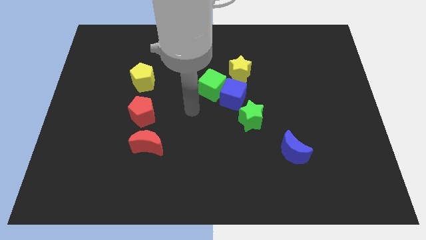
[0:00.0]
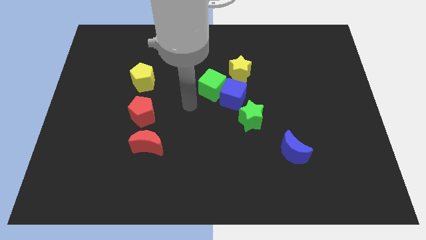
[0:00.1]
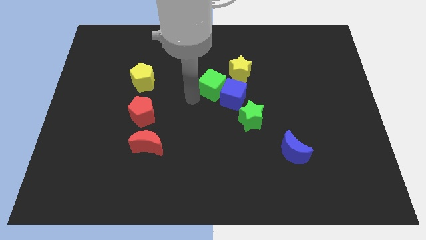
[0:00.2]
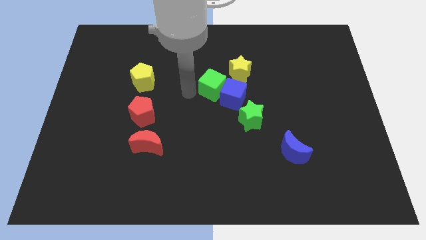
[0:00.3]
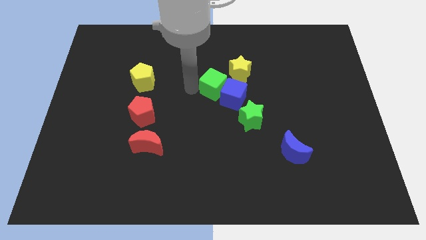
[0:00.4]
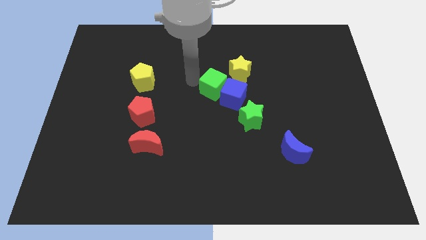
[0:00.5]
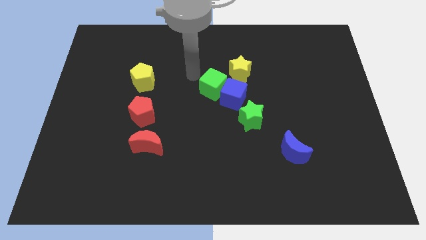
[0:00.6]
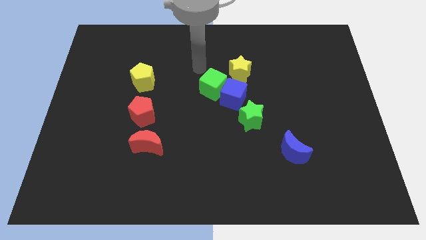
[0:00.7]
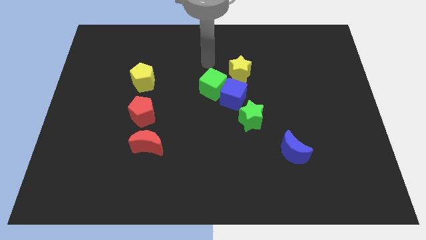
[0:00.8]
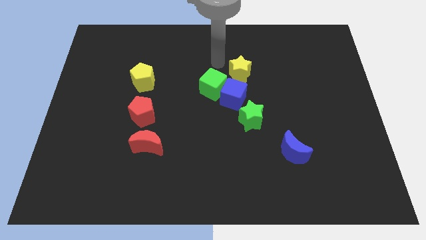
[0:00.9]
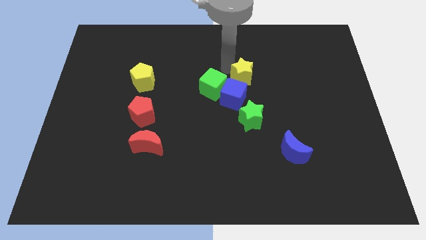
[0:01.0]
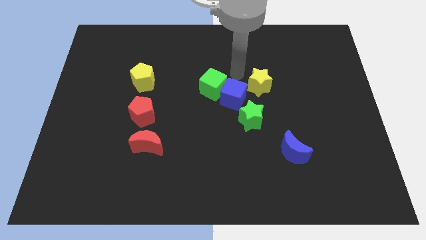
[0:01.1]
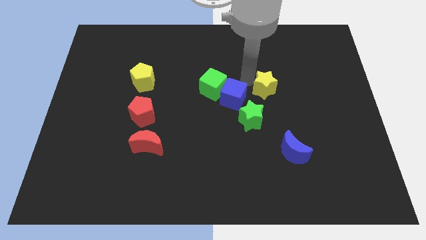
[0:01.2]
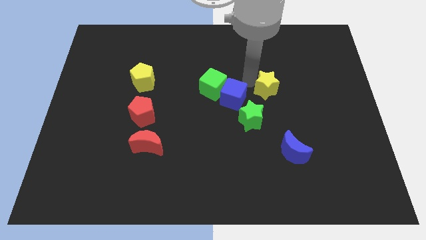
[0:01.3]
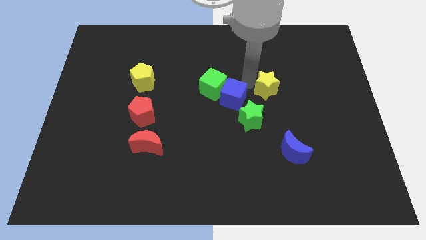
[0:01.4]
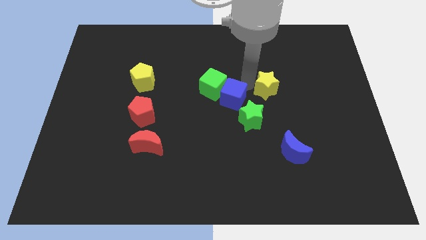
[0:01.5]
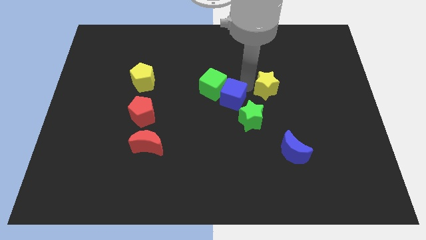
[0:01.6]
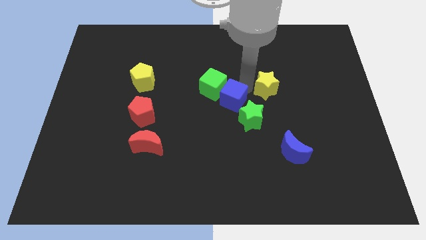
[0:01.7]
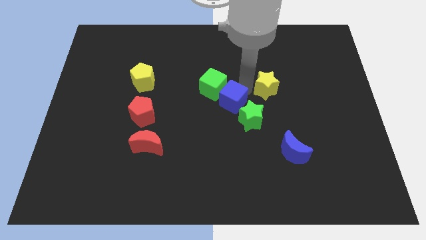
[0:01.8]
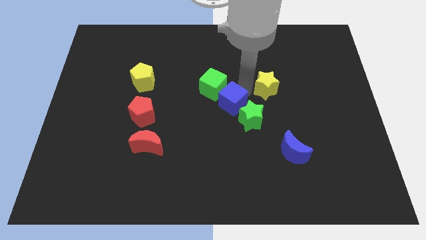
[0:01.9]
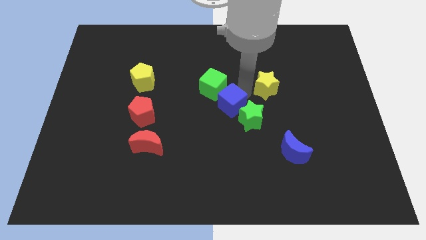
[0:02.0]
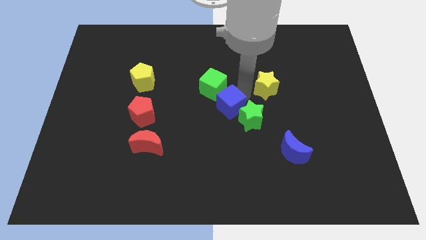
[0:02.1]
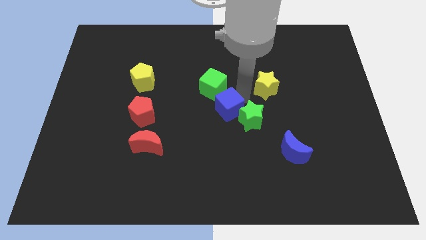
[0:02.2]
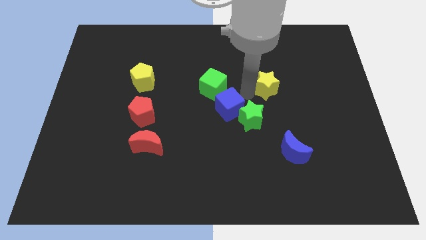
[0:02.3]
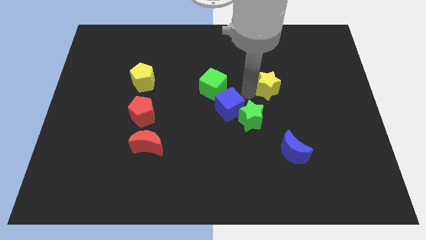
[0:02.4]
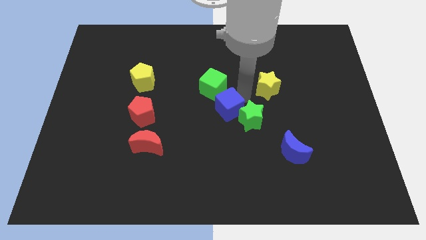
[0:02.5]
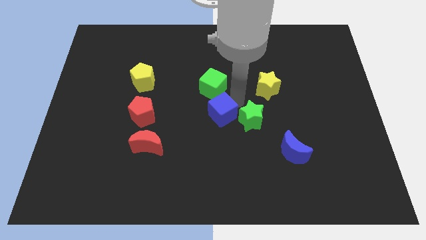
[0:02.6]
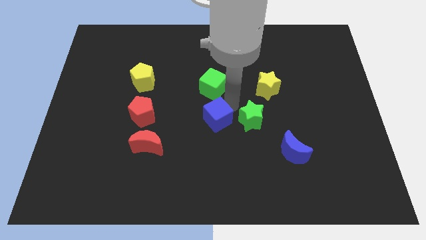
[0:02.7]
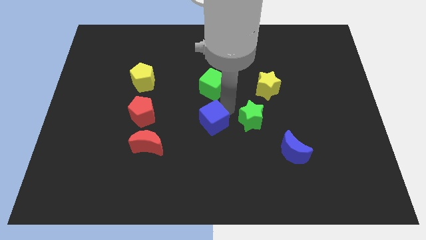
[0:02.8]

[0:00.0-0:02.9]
pull the blue cube apart from the group

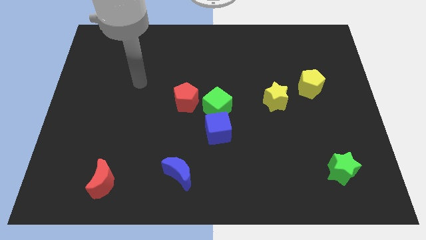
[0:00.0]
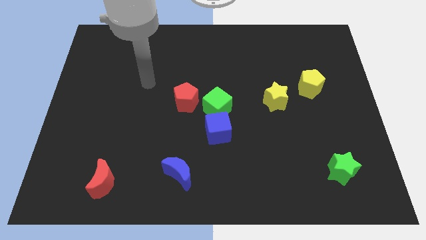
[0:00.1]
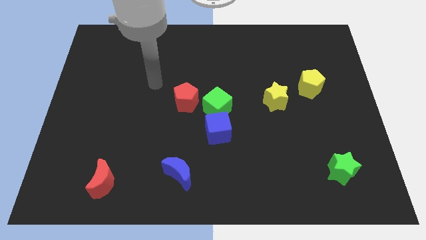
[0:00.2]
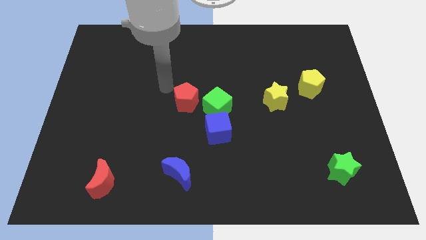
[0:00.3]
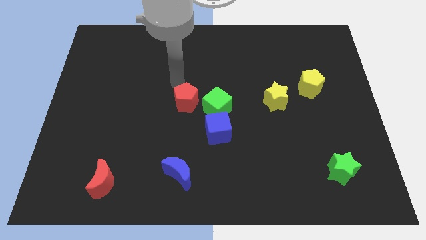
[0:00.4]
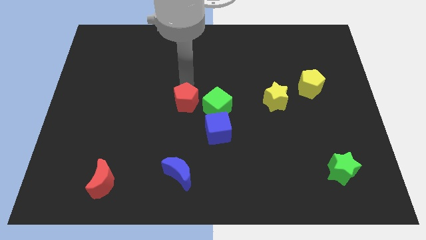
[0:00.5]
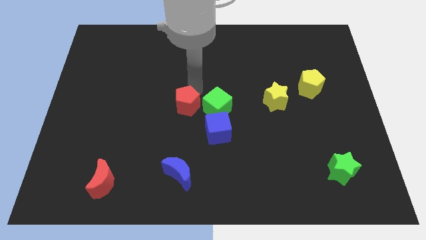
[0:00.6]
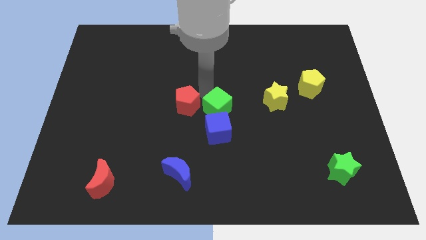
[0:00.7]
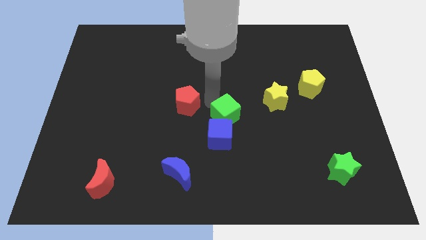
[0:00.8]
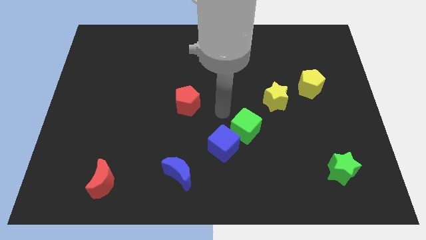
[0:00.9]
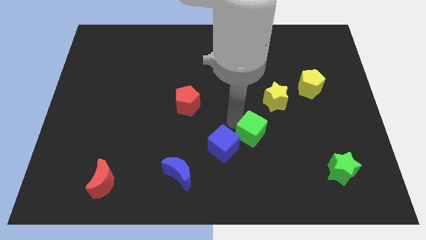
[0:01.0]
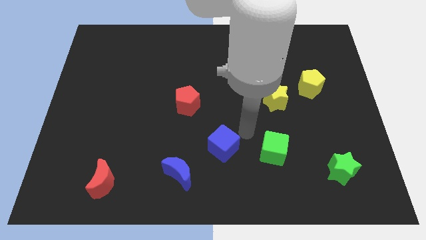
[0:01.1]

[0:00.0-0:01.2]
pull the blue cube apart from the green cube

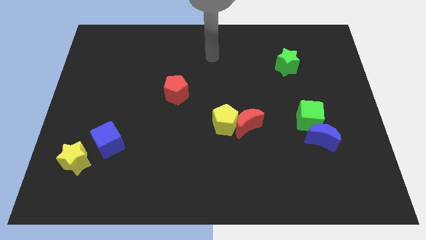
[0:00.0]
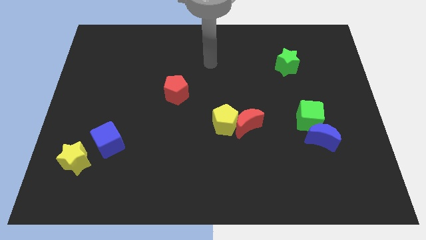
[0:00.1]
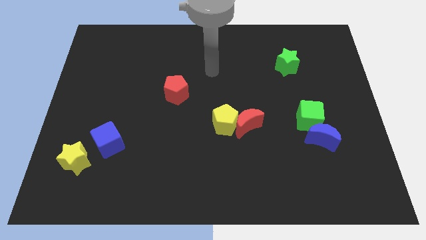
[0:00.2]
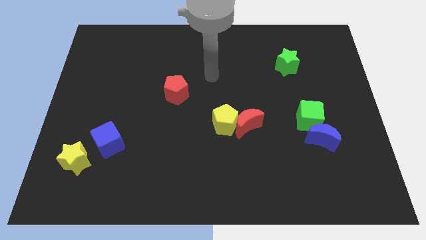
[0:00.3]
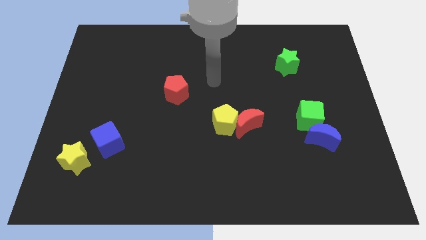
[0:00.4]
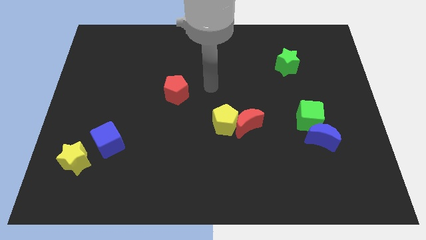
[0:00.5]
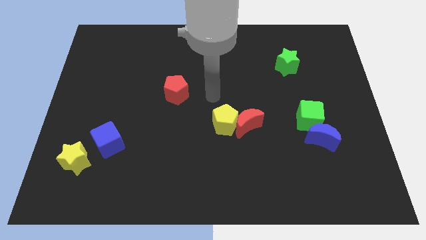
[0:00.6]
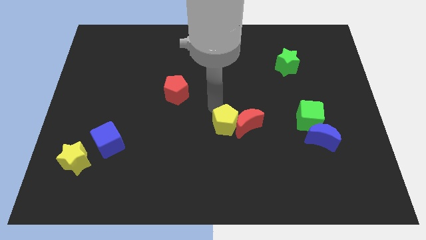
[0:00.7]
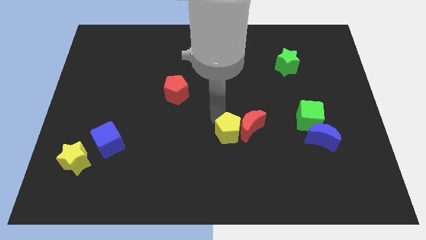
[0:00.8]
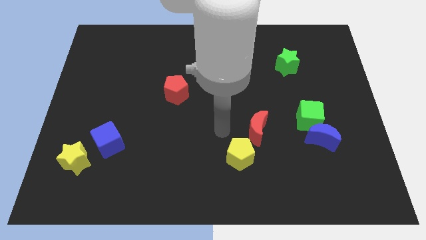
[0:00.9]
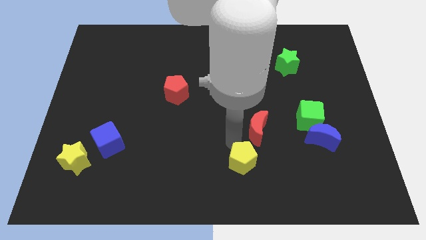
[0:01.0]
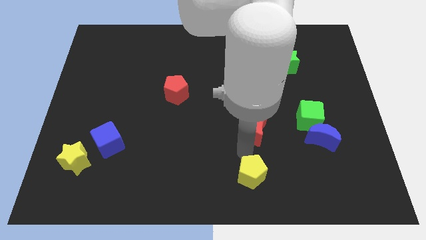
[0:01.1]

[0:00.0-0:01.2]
separate the red moon from the yellow pentagon

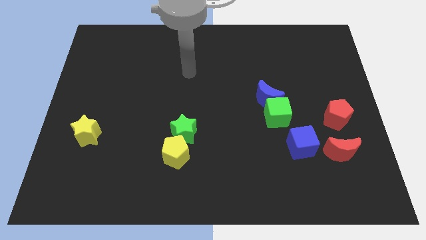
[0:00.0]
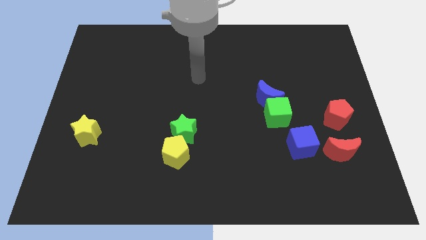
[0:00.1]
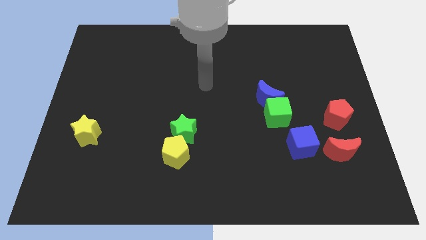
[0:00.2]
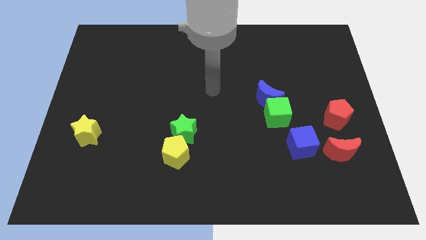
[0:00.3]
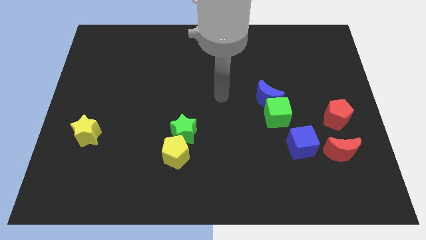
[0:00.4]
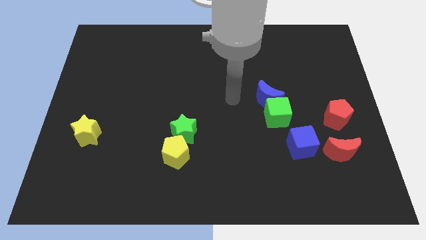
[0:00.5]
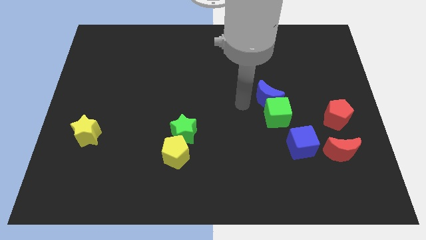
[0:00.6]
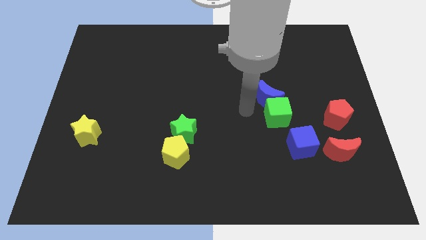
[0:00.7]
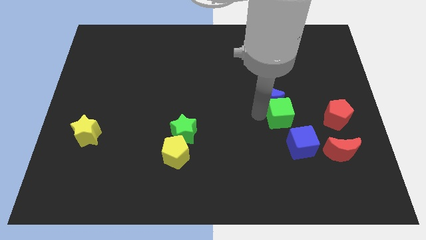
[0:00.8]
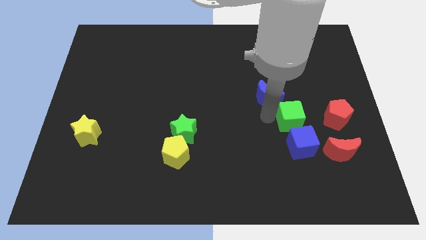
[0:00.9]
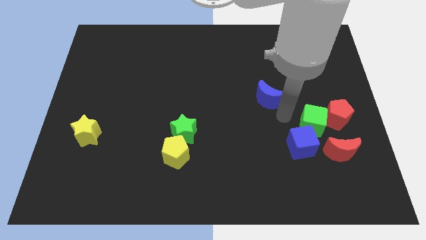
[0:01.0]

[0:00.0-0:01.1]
move the blue moon away from the green cube

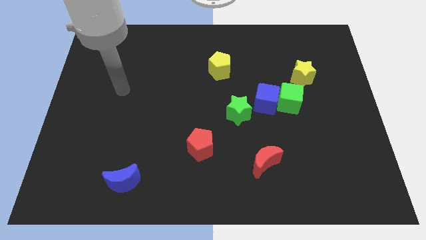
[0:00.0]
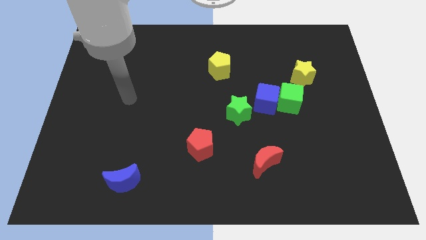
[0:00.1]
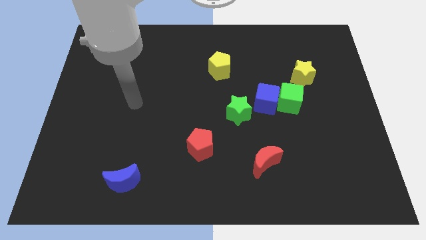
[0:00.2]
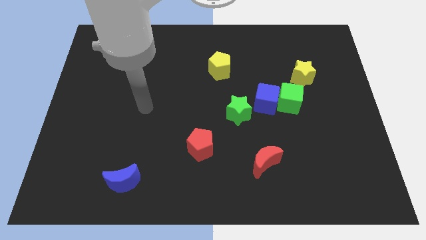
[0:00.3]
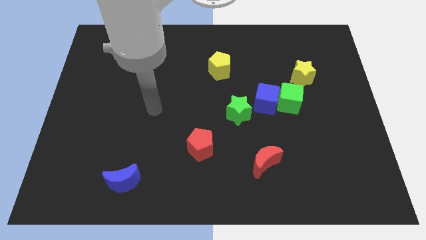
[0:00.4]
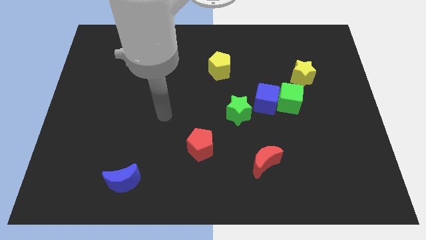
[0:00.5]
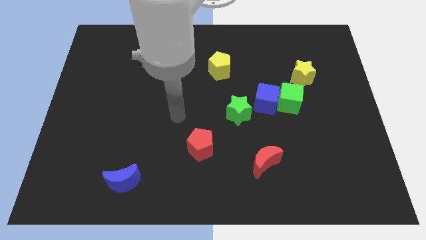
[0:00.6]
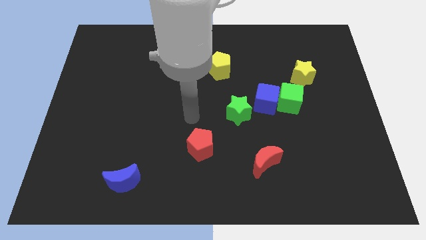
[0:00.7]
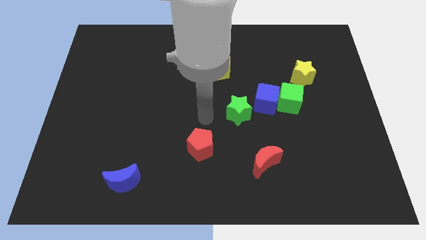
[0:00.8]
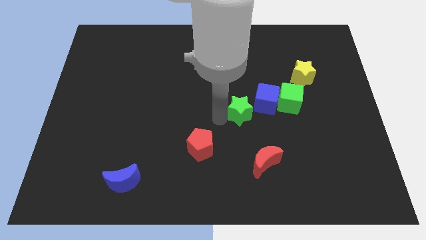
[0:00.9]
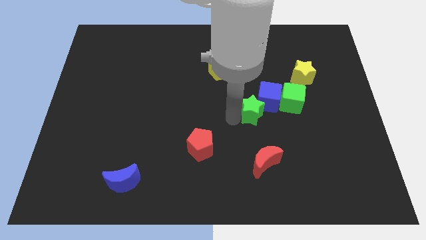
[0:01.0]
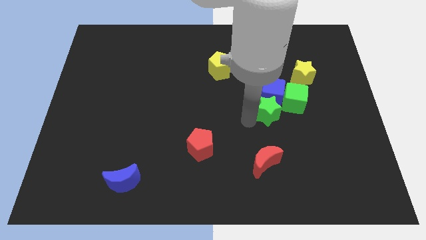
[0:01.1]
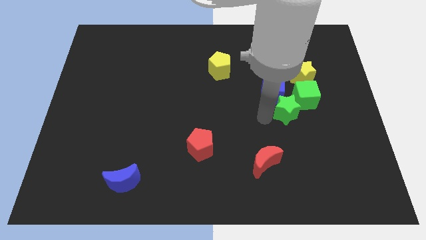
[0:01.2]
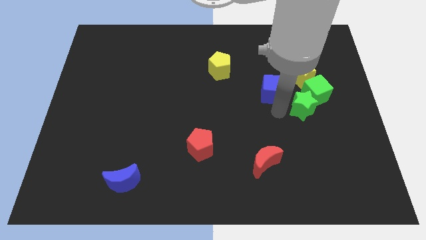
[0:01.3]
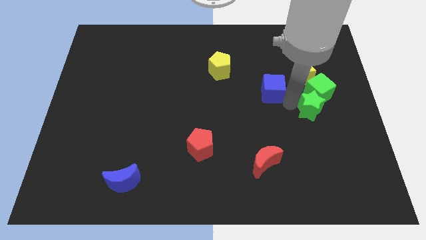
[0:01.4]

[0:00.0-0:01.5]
move the blue cube away from the green cube and green star

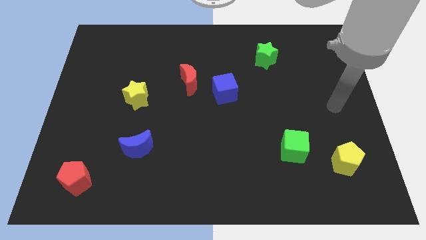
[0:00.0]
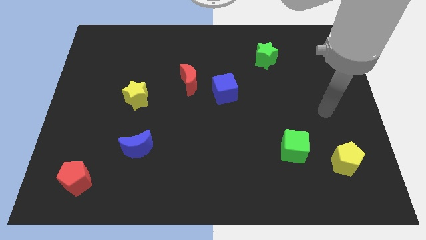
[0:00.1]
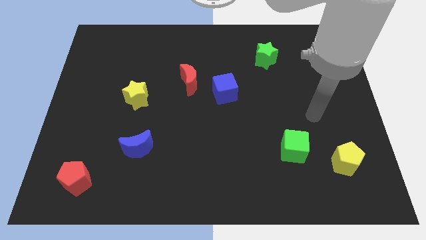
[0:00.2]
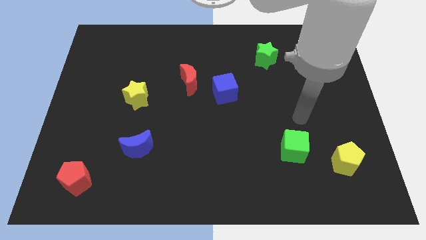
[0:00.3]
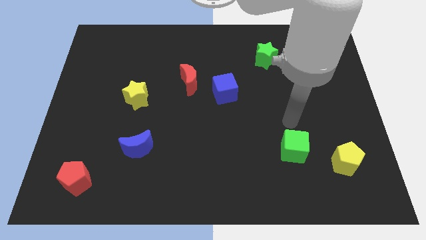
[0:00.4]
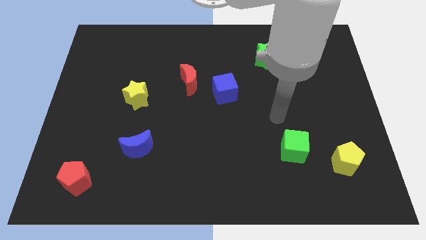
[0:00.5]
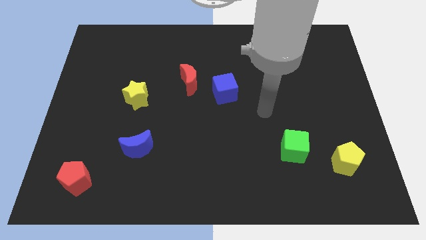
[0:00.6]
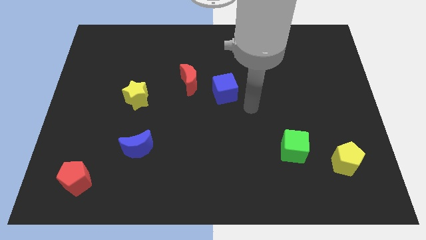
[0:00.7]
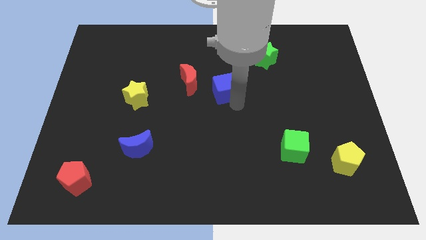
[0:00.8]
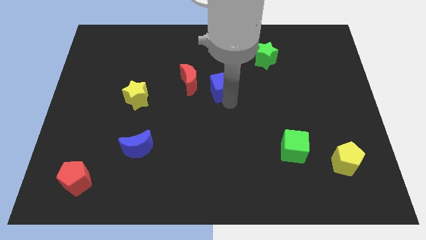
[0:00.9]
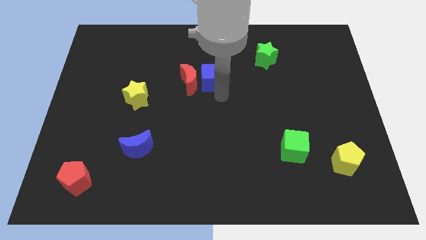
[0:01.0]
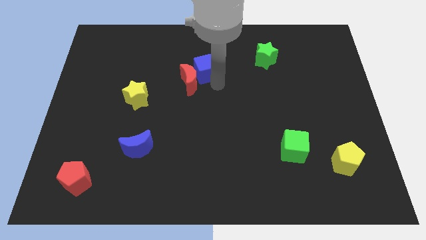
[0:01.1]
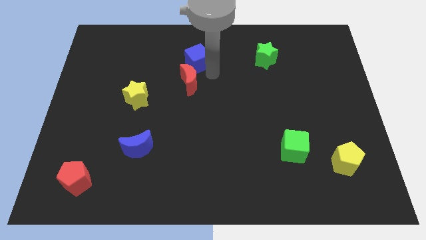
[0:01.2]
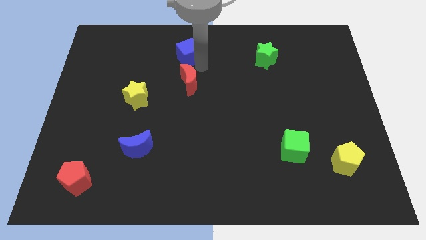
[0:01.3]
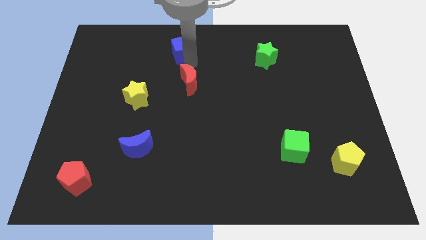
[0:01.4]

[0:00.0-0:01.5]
move the red moon away from the blue cube
